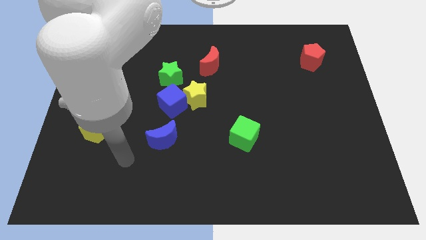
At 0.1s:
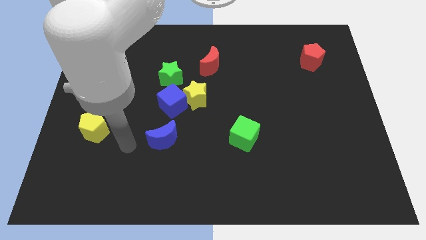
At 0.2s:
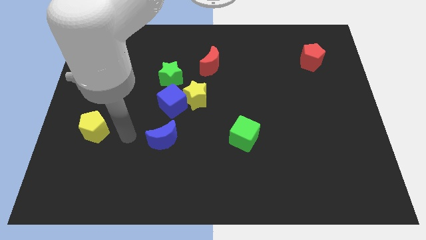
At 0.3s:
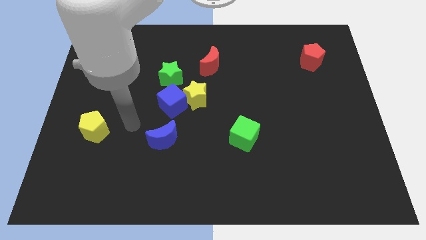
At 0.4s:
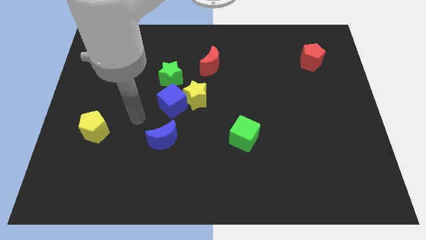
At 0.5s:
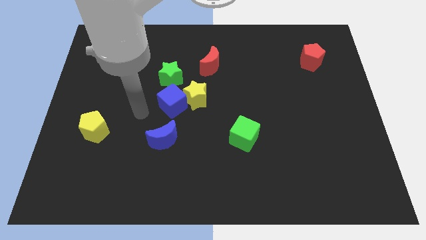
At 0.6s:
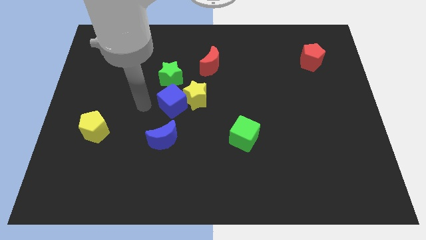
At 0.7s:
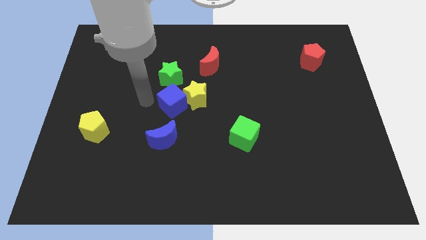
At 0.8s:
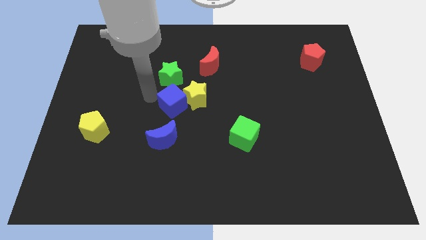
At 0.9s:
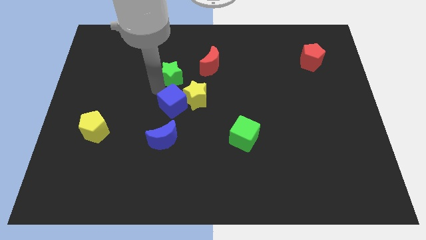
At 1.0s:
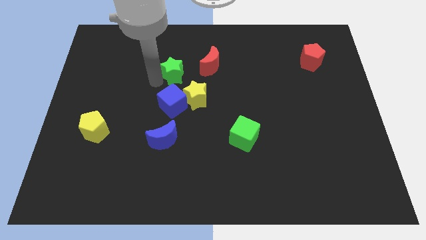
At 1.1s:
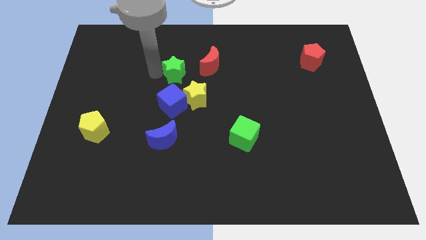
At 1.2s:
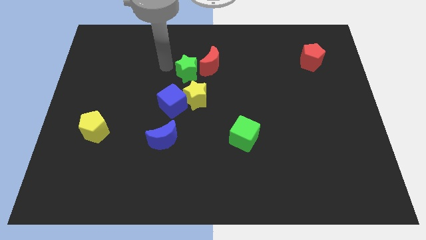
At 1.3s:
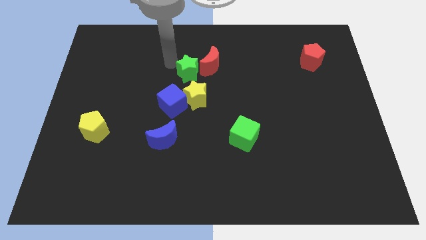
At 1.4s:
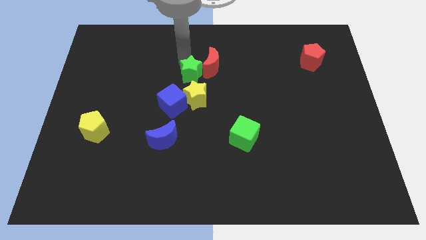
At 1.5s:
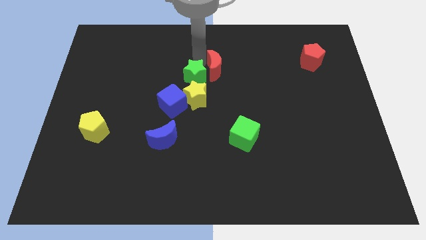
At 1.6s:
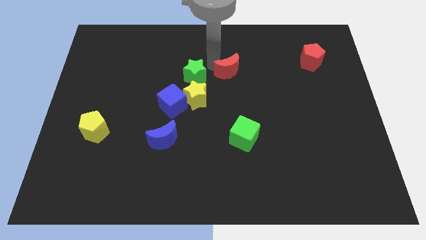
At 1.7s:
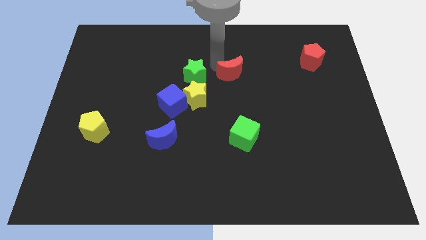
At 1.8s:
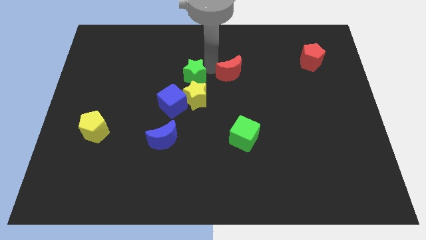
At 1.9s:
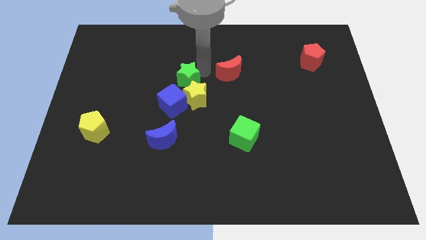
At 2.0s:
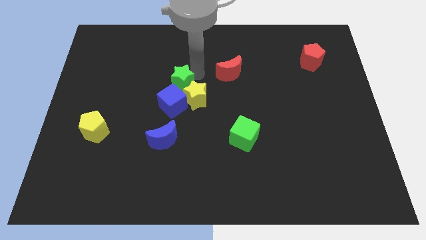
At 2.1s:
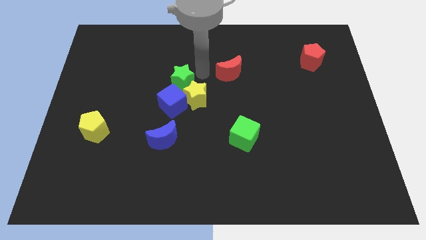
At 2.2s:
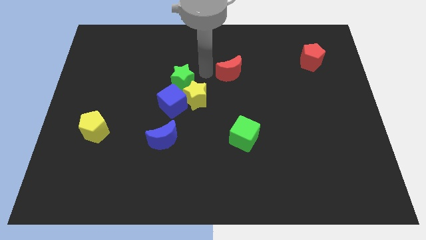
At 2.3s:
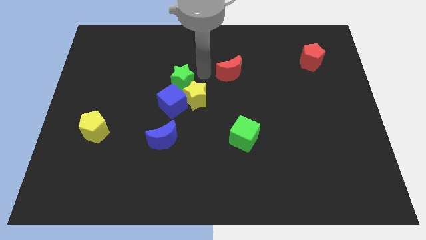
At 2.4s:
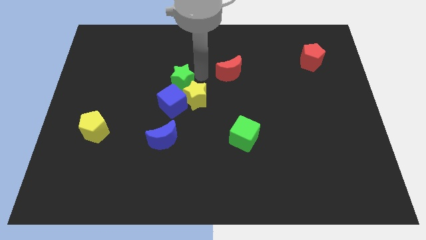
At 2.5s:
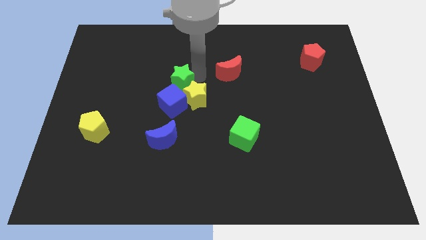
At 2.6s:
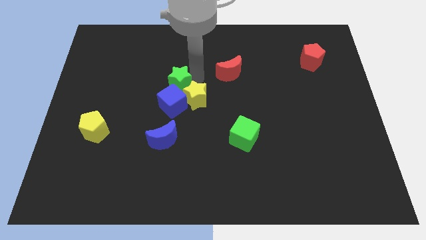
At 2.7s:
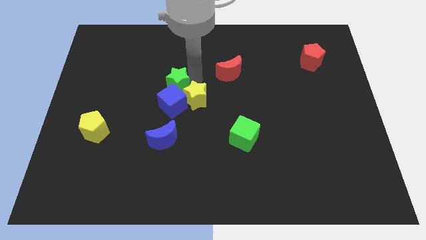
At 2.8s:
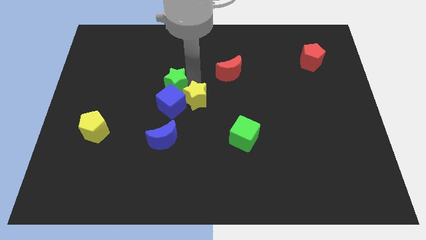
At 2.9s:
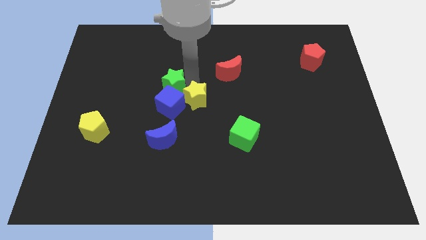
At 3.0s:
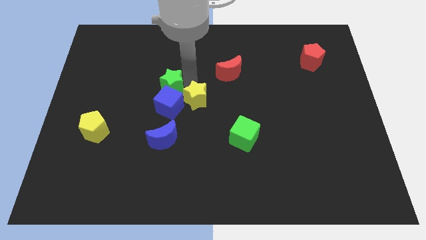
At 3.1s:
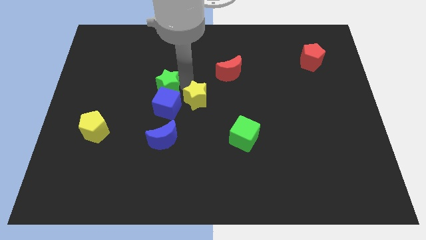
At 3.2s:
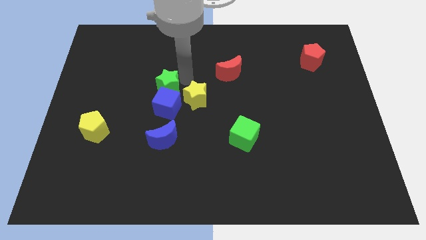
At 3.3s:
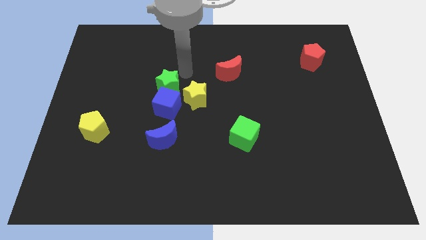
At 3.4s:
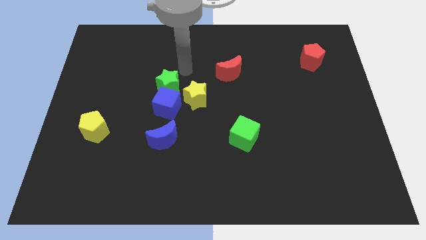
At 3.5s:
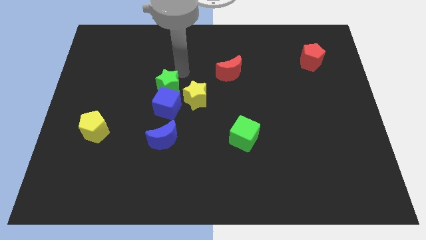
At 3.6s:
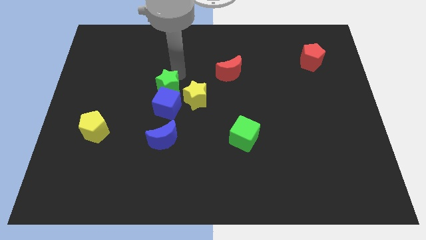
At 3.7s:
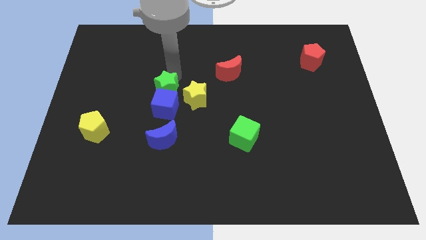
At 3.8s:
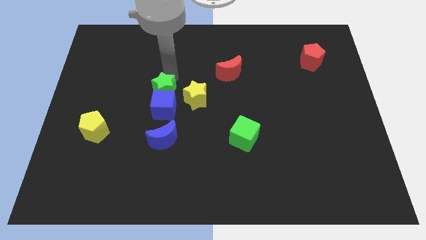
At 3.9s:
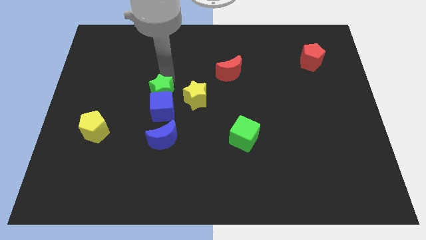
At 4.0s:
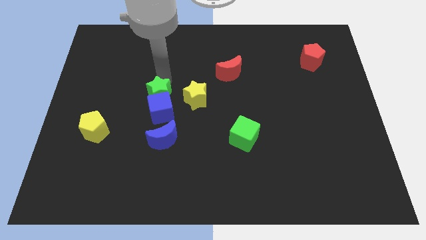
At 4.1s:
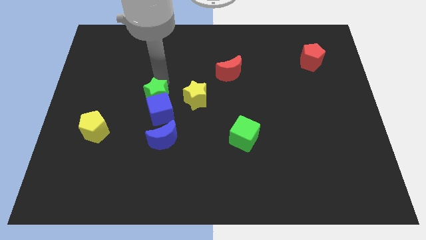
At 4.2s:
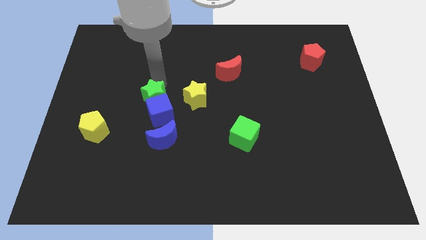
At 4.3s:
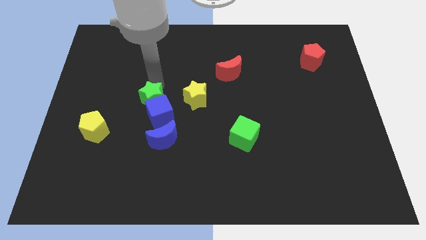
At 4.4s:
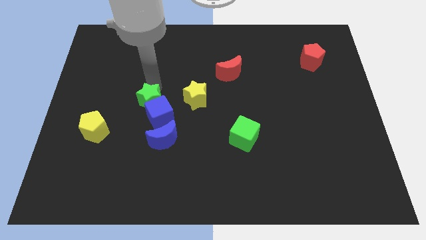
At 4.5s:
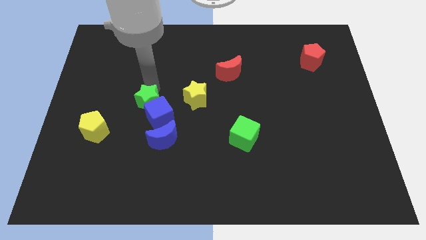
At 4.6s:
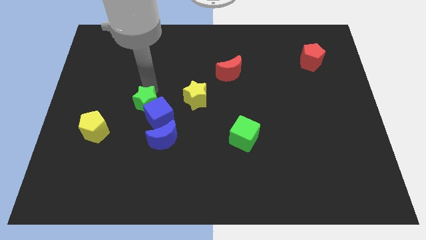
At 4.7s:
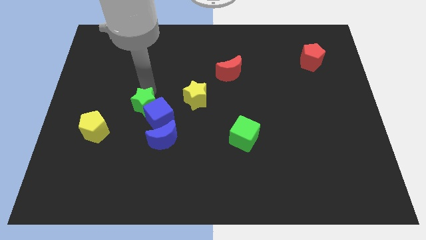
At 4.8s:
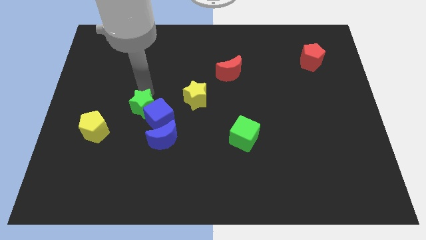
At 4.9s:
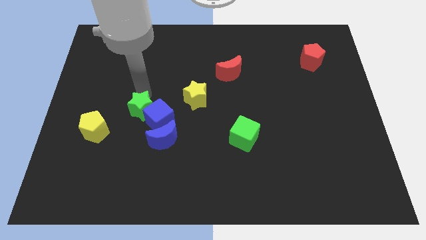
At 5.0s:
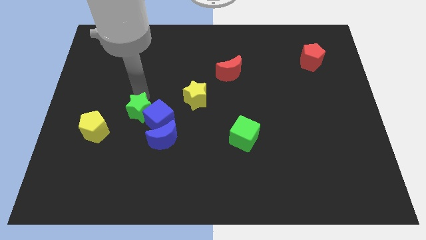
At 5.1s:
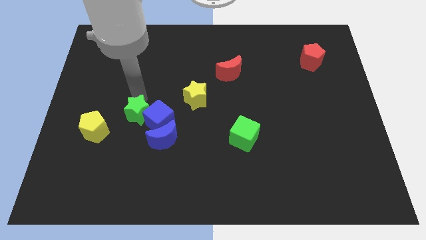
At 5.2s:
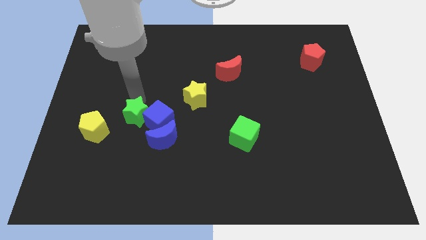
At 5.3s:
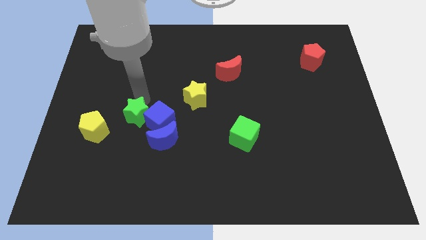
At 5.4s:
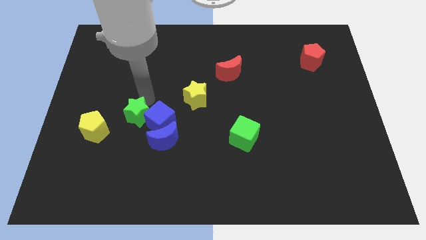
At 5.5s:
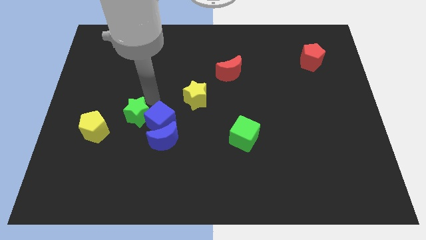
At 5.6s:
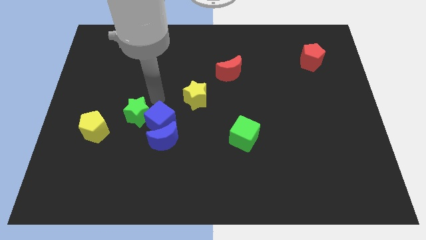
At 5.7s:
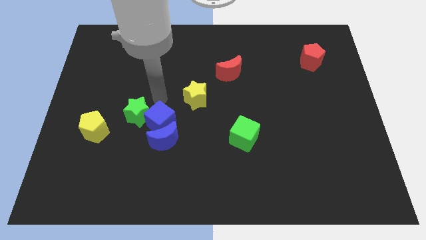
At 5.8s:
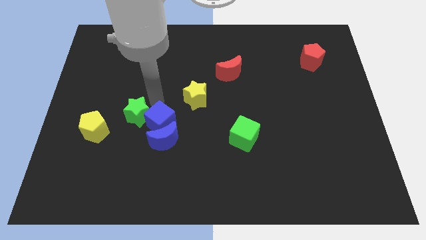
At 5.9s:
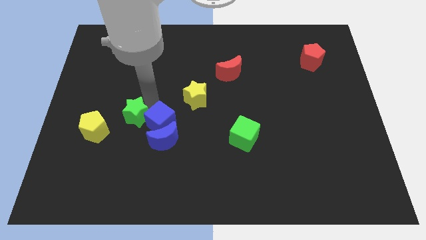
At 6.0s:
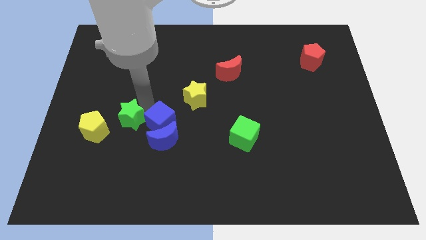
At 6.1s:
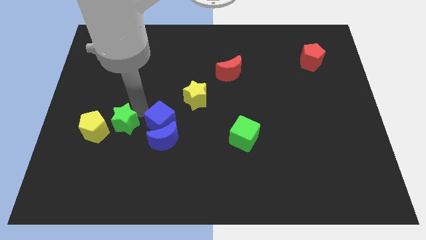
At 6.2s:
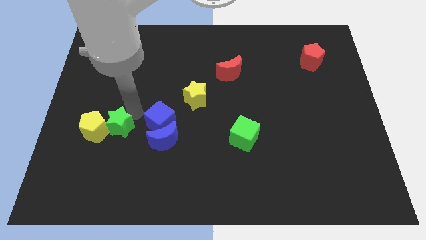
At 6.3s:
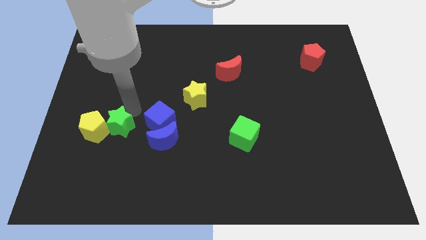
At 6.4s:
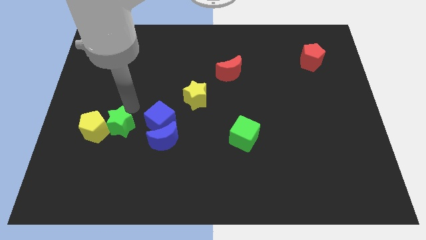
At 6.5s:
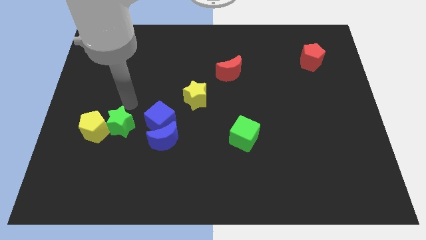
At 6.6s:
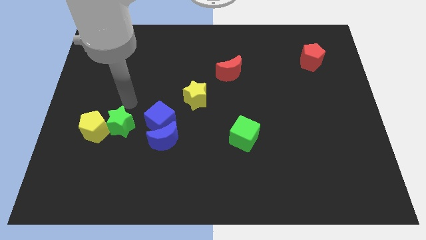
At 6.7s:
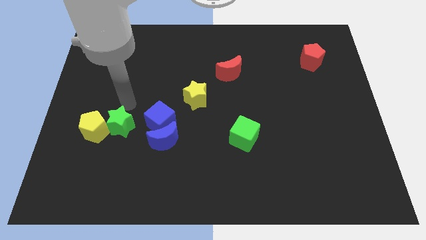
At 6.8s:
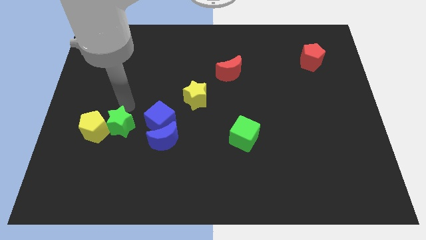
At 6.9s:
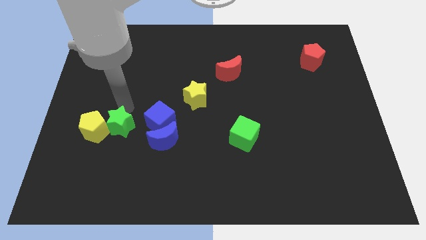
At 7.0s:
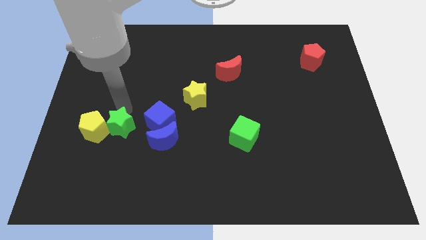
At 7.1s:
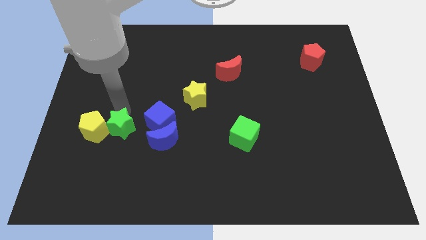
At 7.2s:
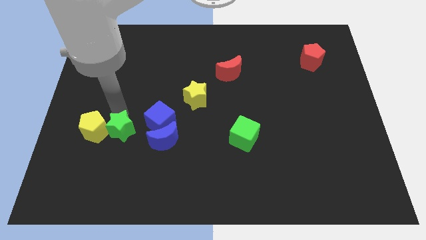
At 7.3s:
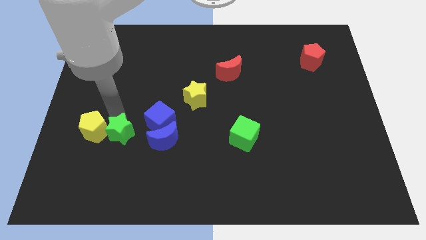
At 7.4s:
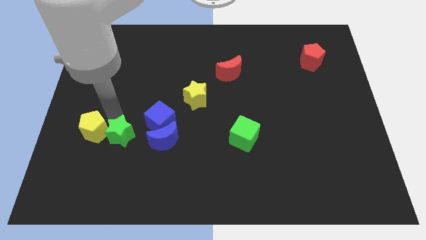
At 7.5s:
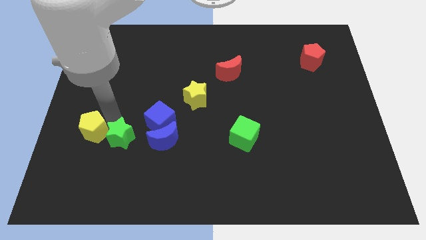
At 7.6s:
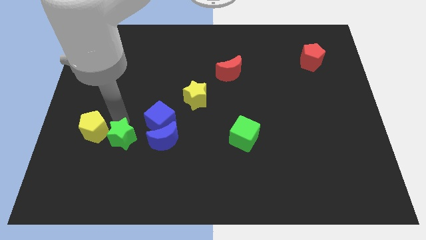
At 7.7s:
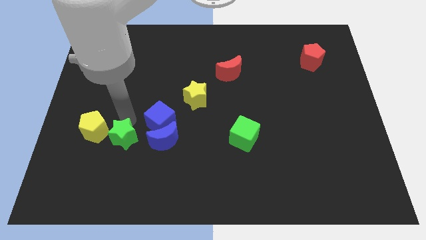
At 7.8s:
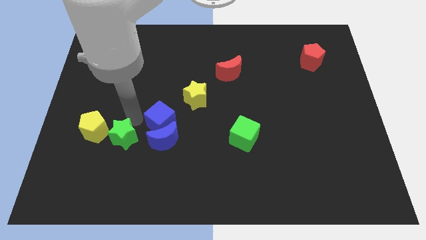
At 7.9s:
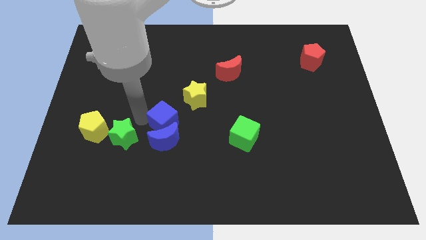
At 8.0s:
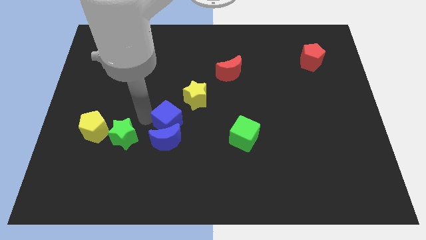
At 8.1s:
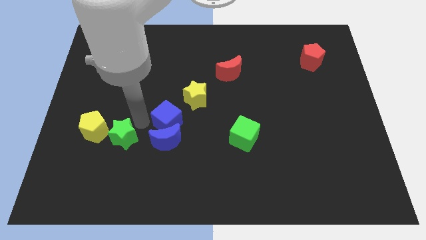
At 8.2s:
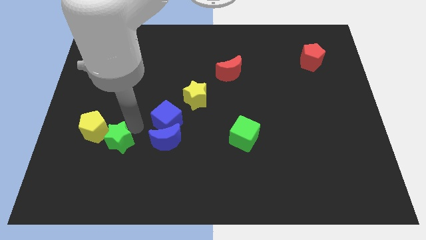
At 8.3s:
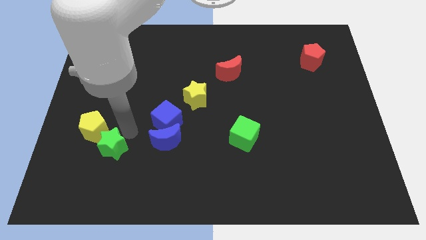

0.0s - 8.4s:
slide the green star to the bottom side of the yellow pentagon
